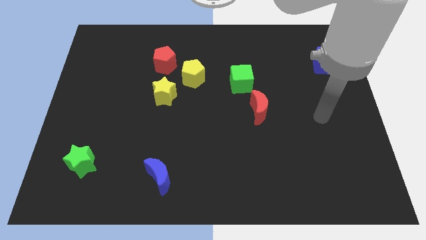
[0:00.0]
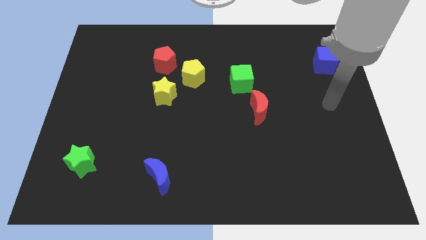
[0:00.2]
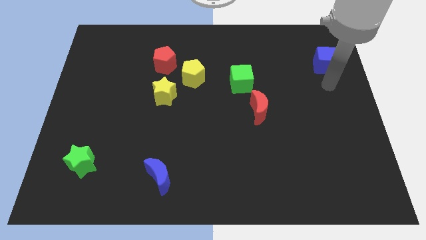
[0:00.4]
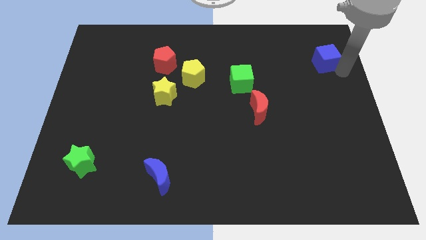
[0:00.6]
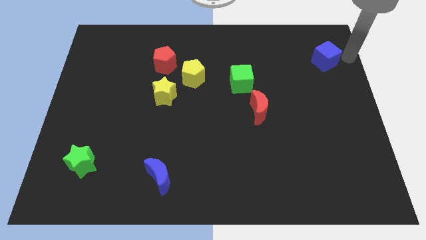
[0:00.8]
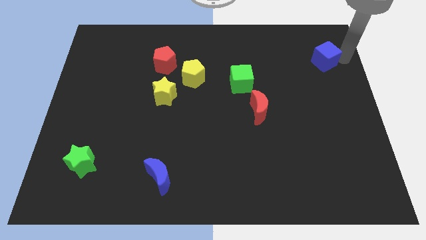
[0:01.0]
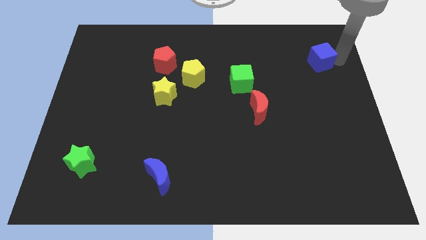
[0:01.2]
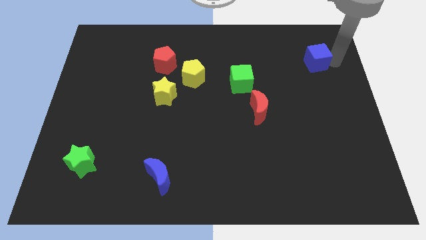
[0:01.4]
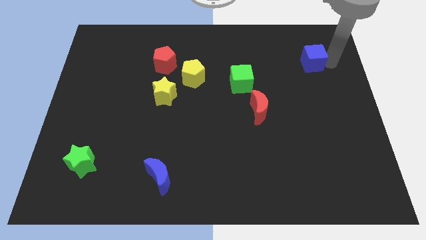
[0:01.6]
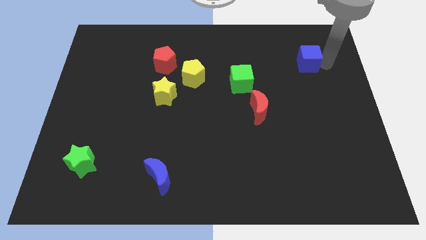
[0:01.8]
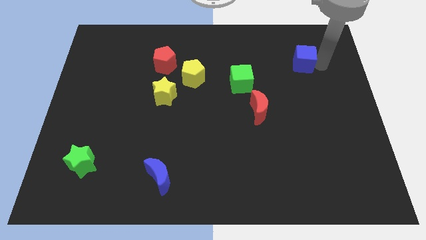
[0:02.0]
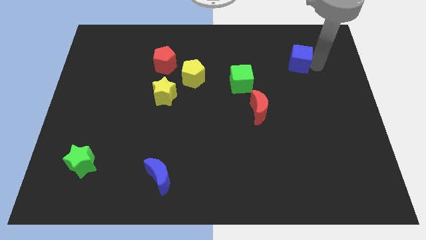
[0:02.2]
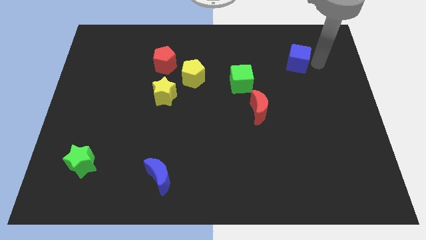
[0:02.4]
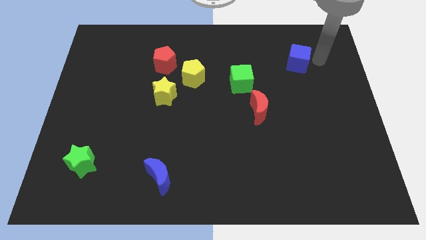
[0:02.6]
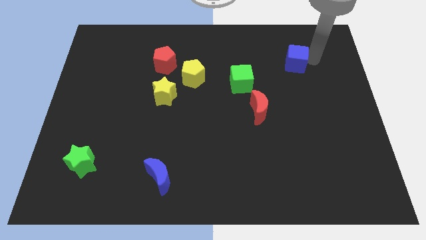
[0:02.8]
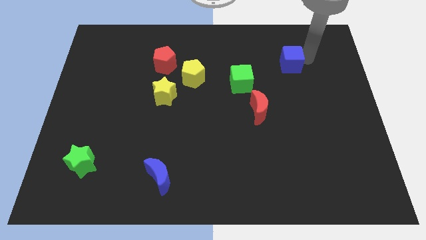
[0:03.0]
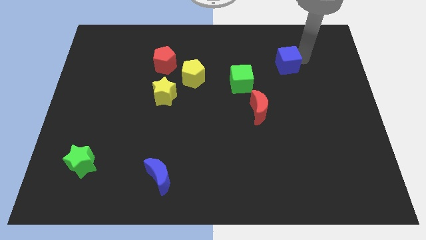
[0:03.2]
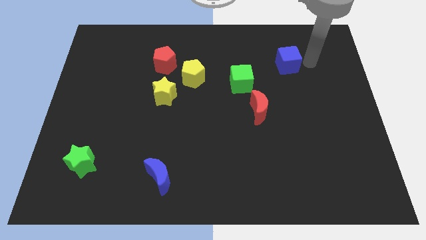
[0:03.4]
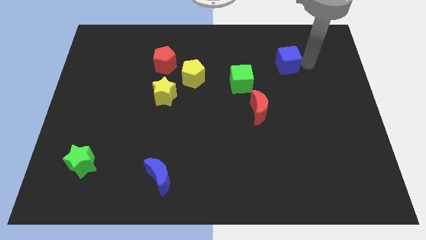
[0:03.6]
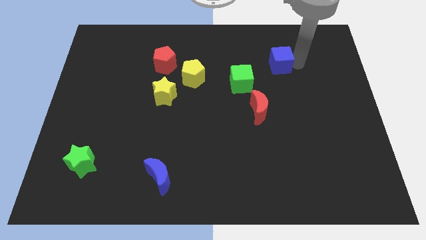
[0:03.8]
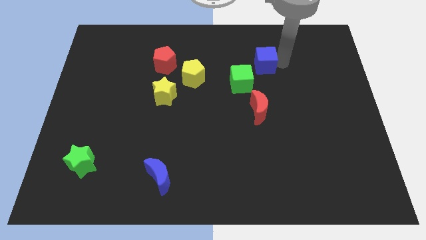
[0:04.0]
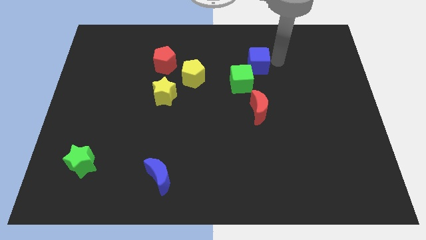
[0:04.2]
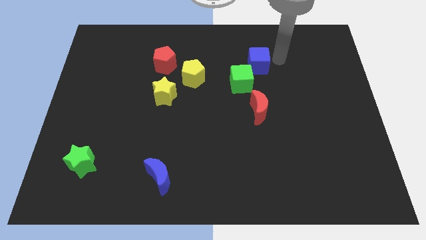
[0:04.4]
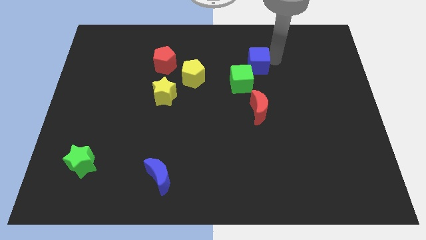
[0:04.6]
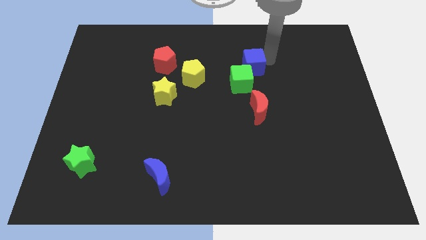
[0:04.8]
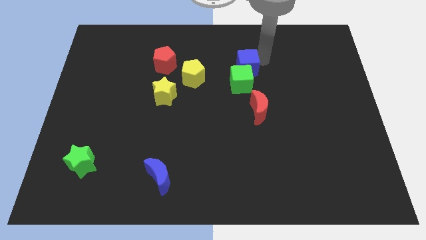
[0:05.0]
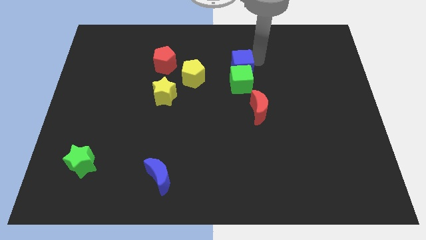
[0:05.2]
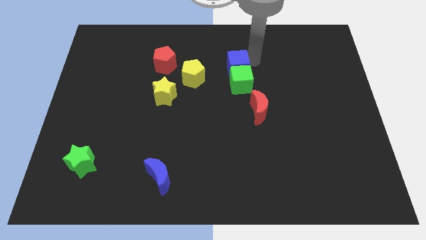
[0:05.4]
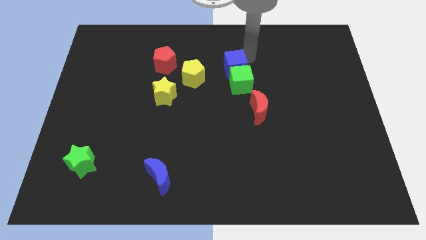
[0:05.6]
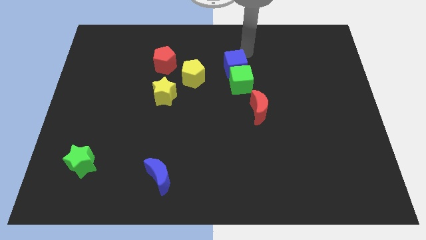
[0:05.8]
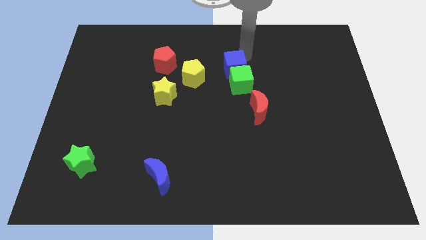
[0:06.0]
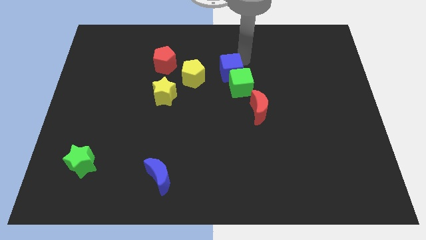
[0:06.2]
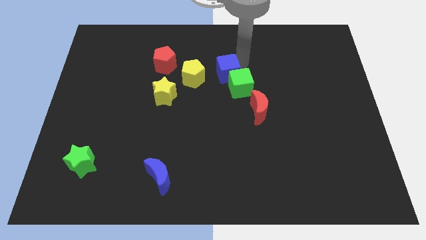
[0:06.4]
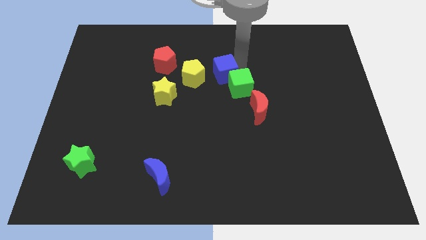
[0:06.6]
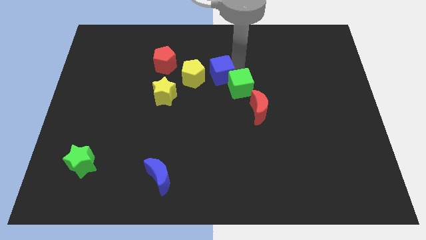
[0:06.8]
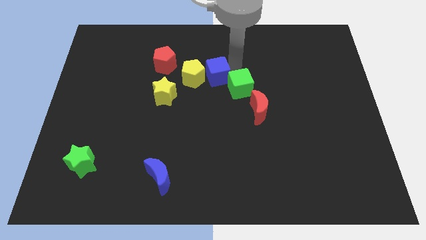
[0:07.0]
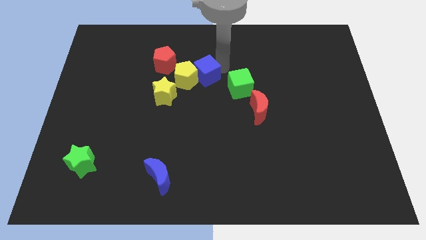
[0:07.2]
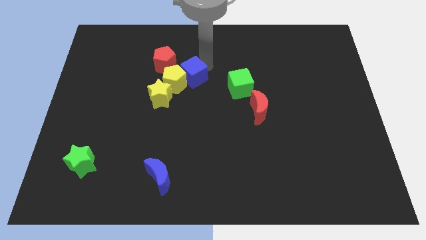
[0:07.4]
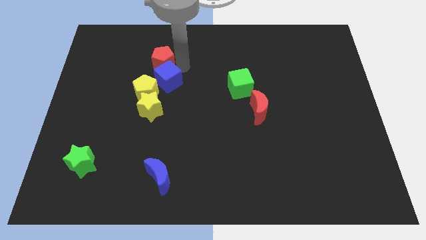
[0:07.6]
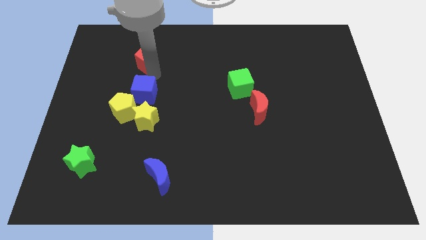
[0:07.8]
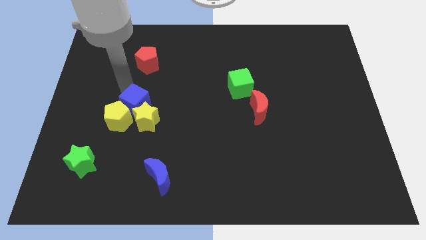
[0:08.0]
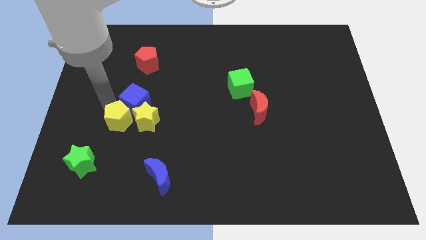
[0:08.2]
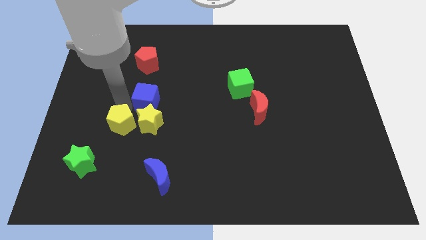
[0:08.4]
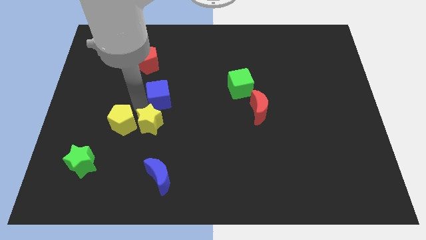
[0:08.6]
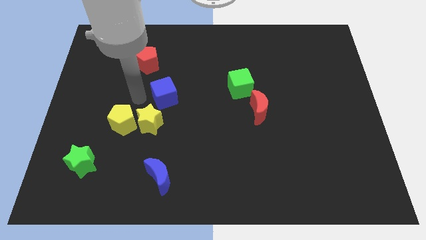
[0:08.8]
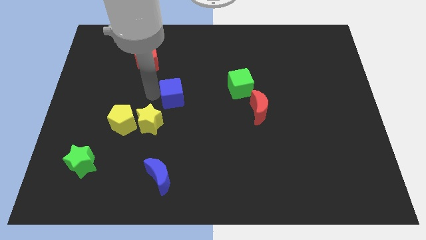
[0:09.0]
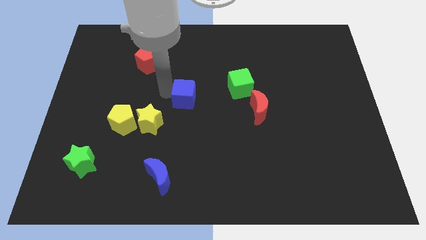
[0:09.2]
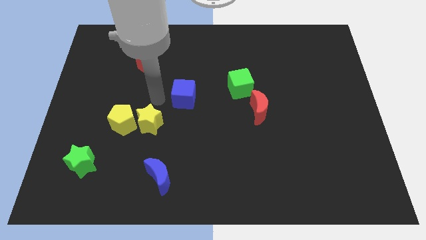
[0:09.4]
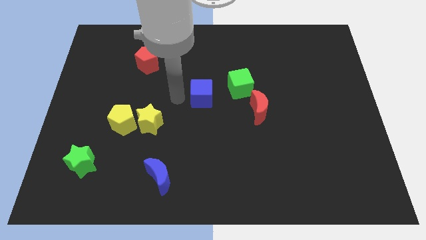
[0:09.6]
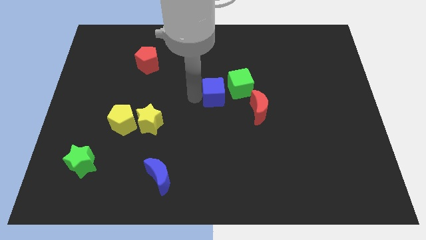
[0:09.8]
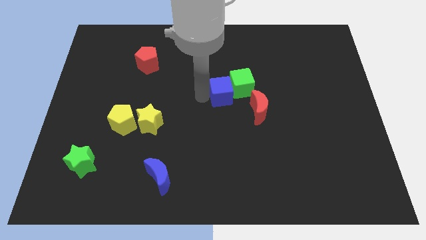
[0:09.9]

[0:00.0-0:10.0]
push the blue cube to the top left of the red moon

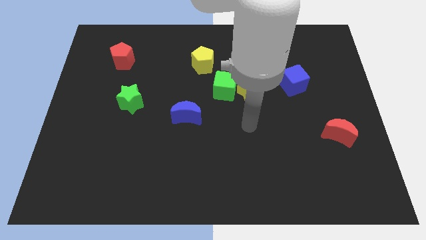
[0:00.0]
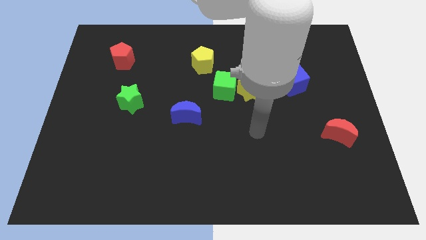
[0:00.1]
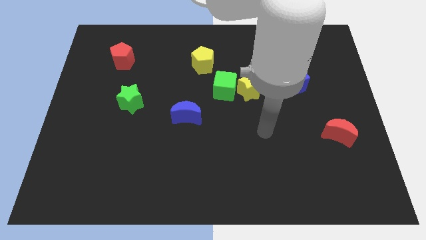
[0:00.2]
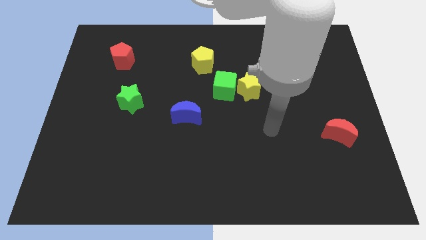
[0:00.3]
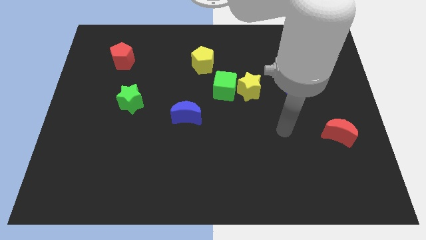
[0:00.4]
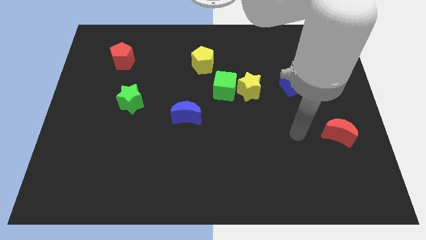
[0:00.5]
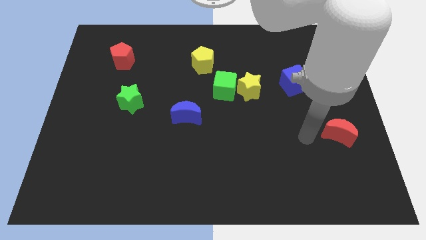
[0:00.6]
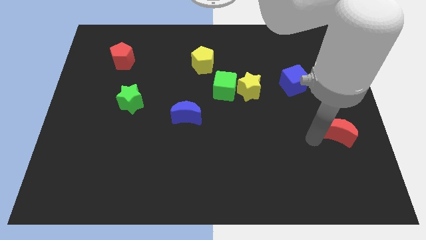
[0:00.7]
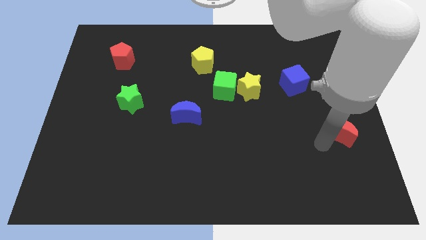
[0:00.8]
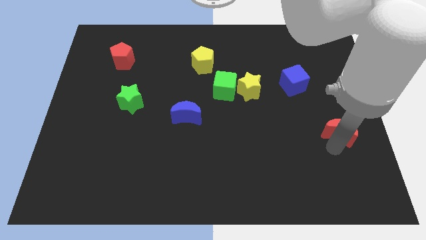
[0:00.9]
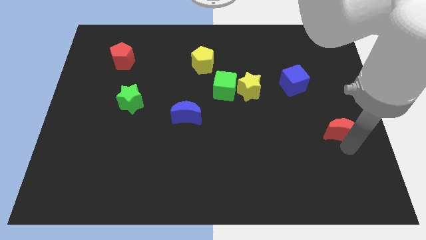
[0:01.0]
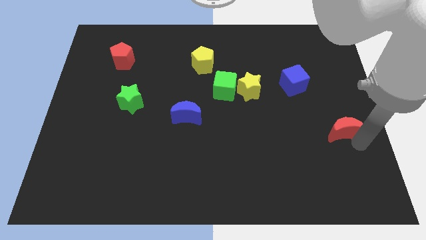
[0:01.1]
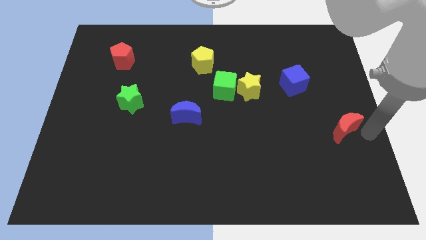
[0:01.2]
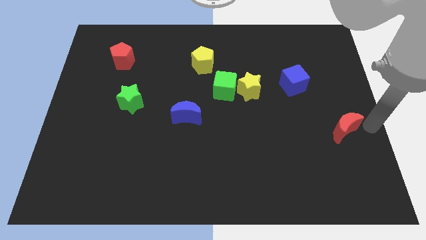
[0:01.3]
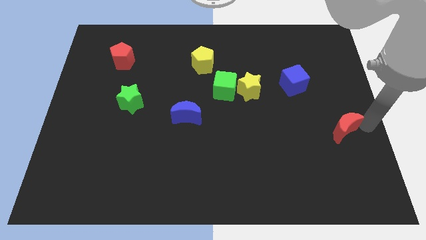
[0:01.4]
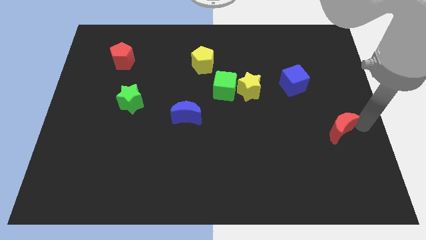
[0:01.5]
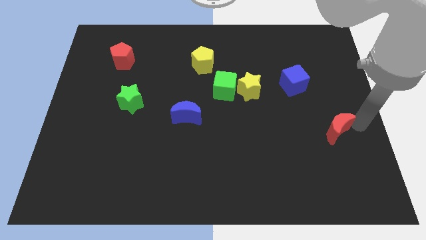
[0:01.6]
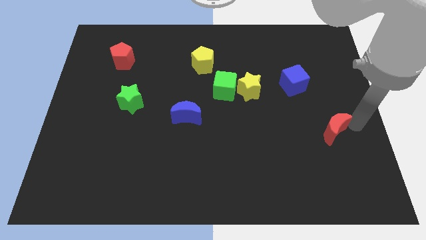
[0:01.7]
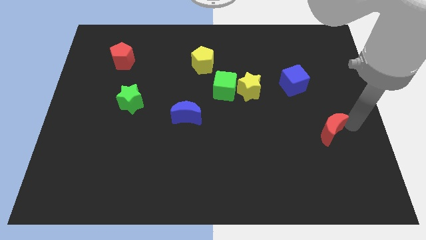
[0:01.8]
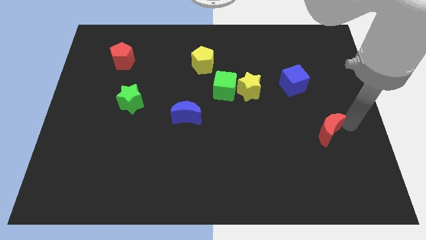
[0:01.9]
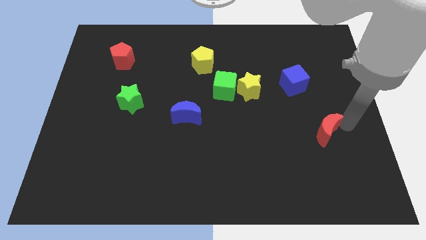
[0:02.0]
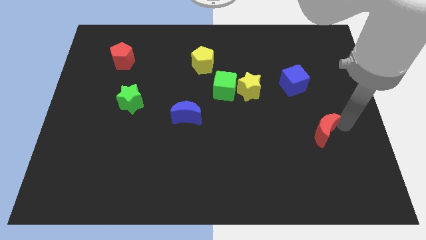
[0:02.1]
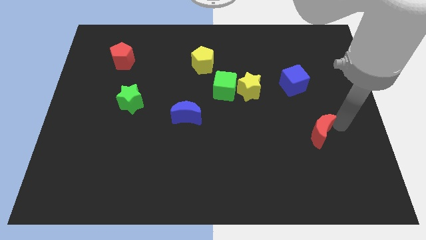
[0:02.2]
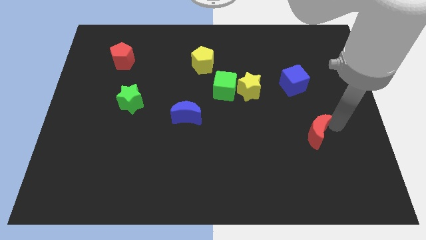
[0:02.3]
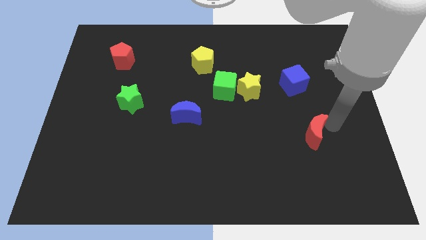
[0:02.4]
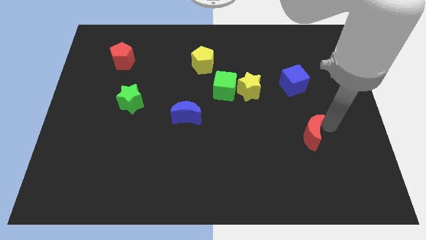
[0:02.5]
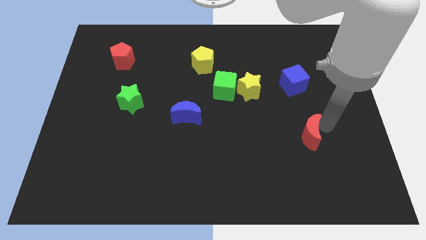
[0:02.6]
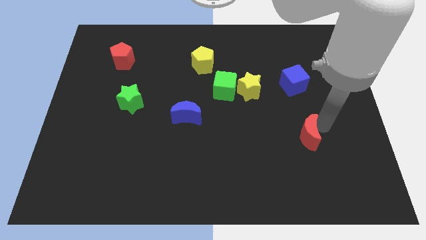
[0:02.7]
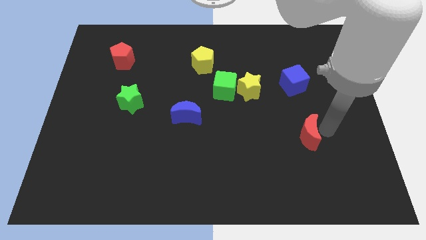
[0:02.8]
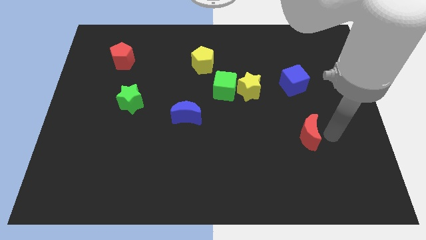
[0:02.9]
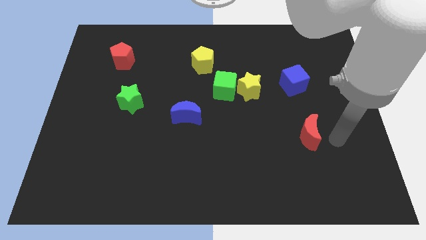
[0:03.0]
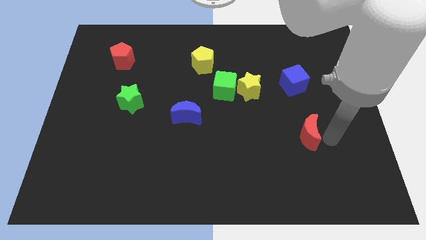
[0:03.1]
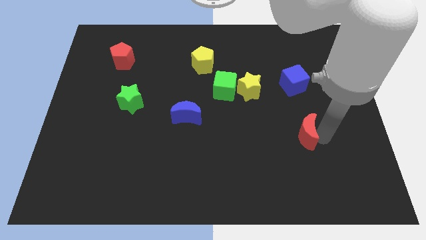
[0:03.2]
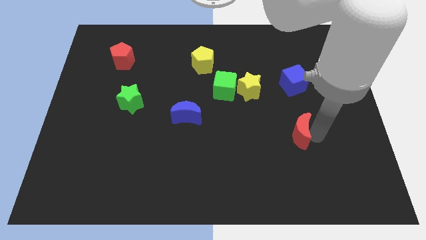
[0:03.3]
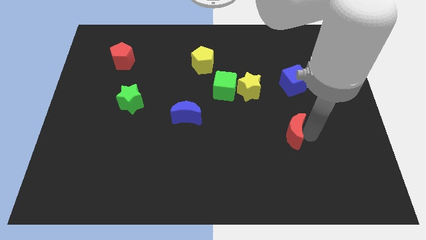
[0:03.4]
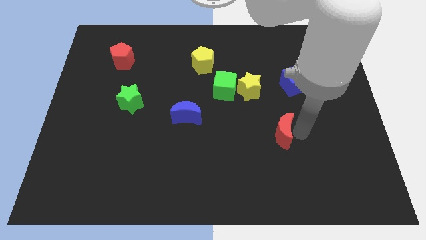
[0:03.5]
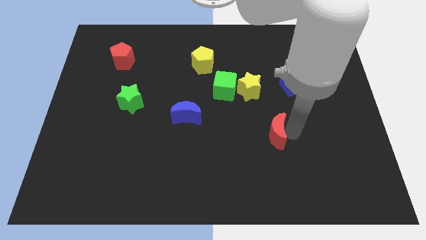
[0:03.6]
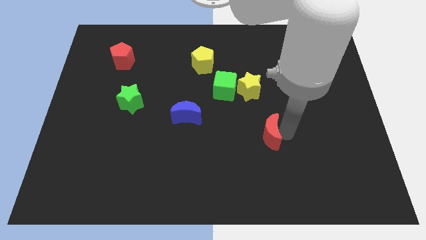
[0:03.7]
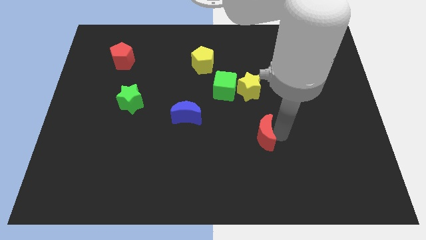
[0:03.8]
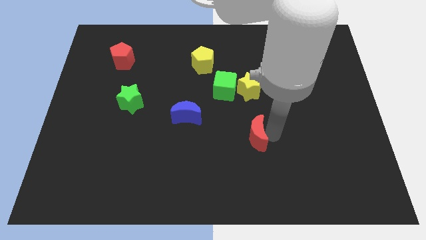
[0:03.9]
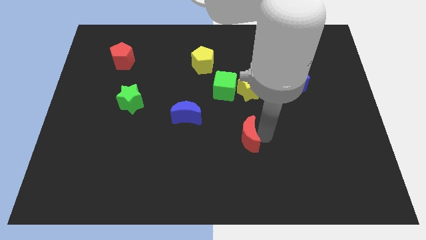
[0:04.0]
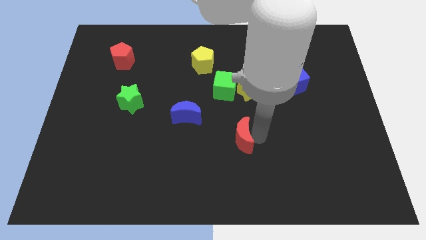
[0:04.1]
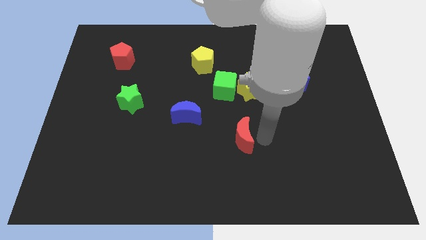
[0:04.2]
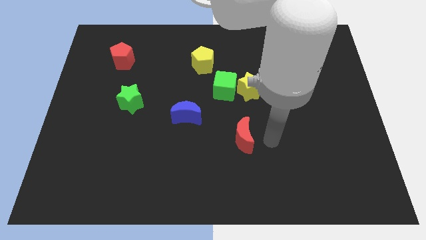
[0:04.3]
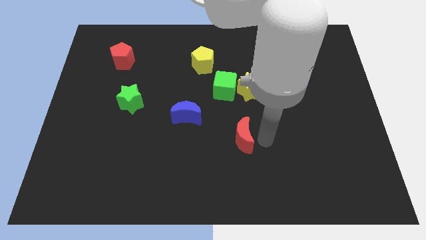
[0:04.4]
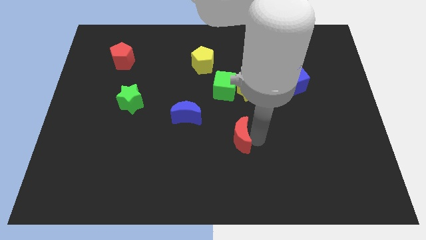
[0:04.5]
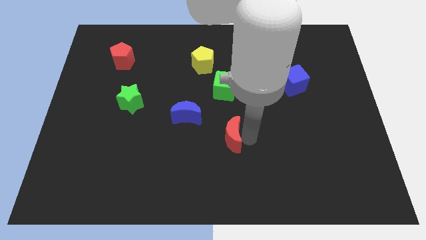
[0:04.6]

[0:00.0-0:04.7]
move the red moon diagonally down and to the right of the blue moon
